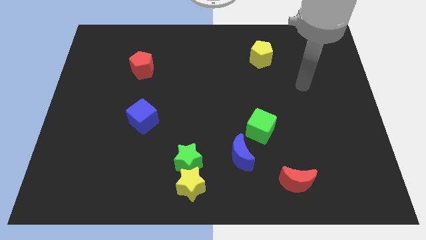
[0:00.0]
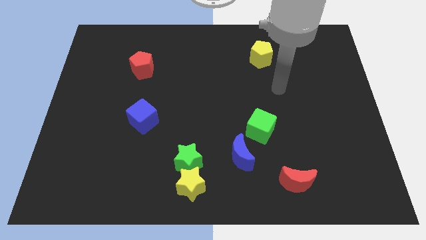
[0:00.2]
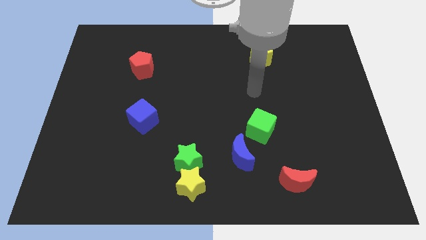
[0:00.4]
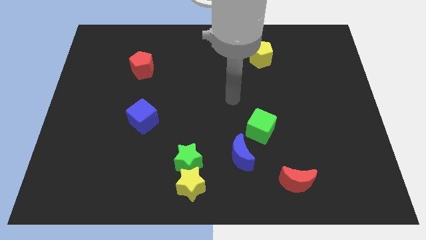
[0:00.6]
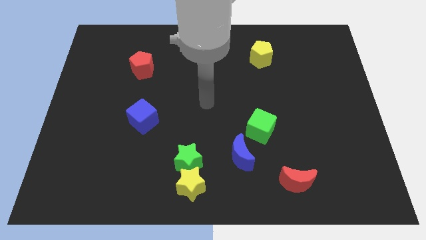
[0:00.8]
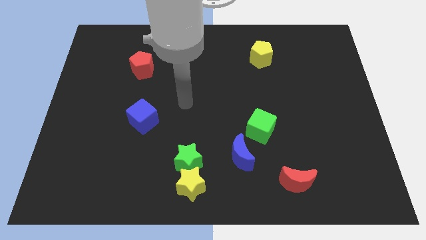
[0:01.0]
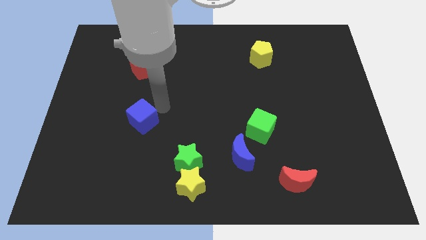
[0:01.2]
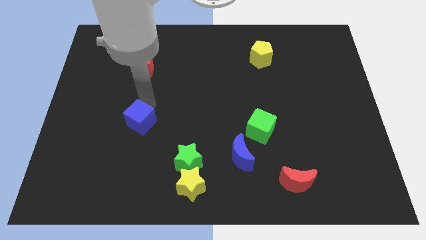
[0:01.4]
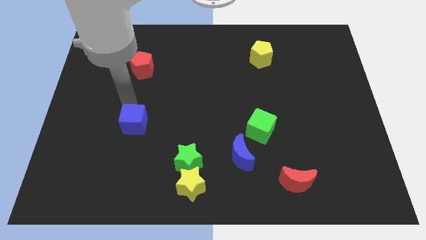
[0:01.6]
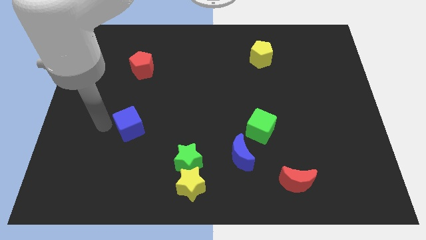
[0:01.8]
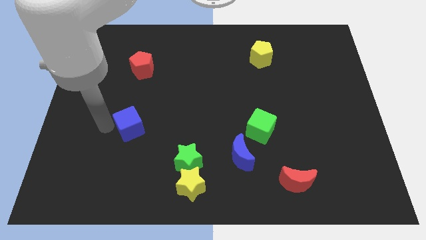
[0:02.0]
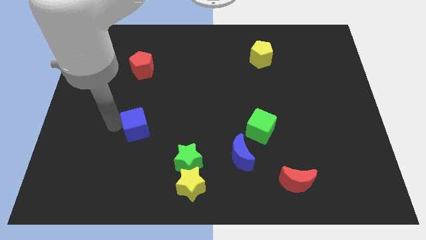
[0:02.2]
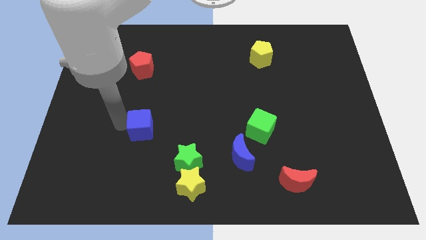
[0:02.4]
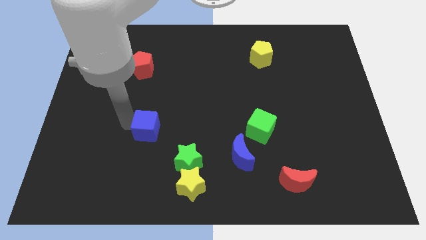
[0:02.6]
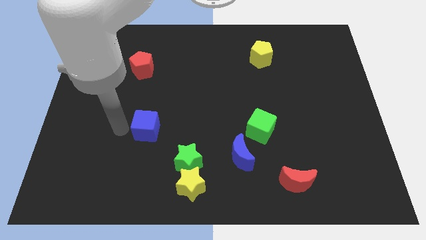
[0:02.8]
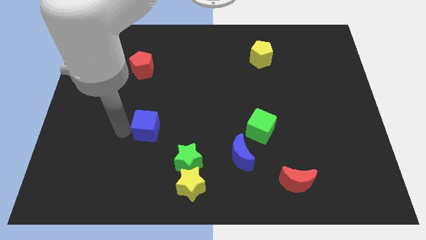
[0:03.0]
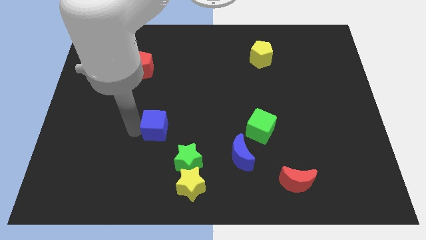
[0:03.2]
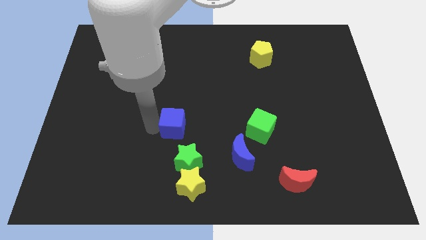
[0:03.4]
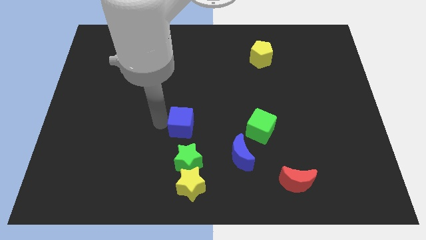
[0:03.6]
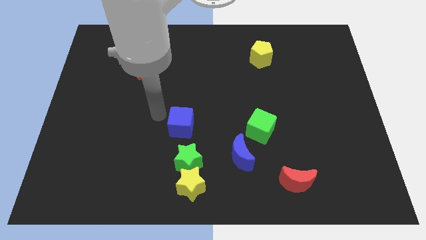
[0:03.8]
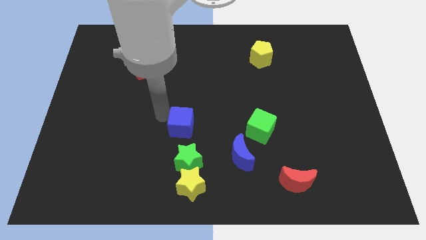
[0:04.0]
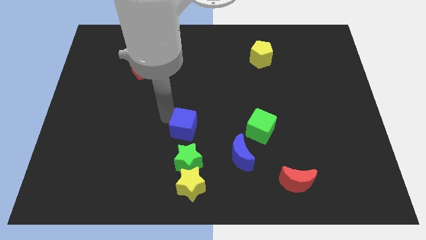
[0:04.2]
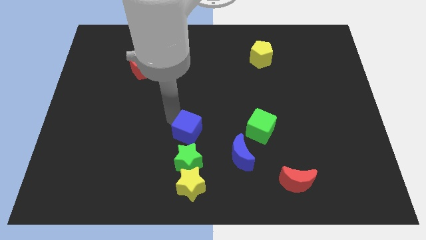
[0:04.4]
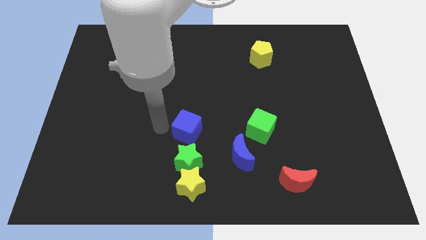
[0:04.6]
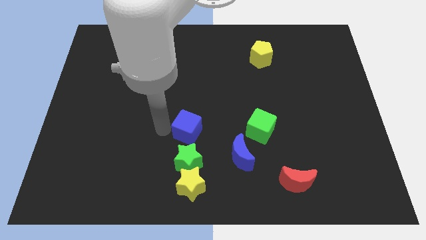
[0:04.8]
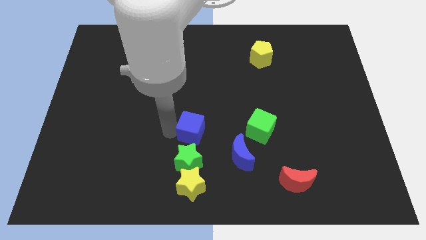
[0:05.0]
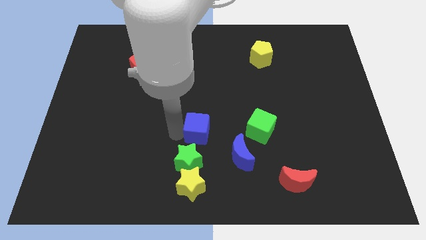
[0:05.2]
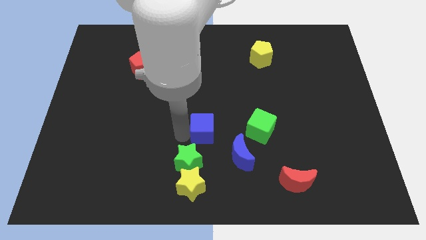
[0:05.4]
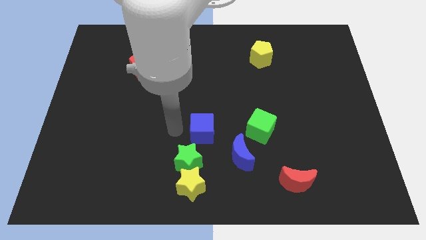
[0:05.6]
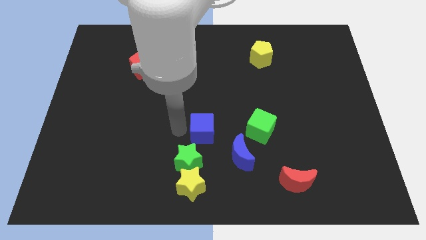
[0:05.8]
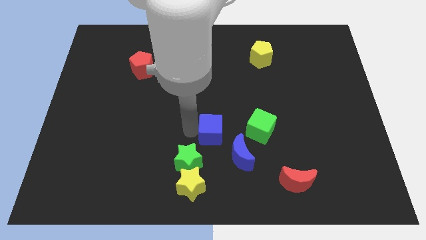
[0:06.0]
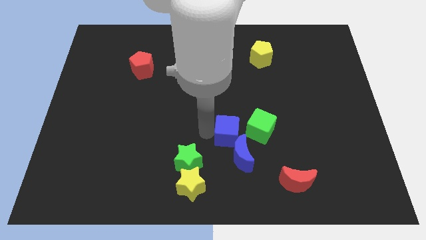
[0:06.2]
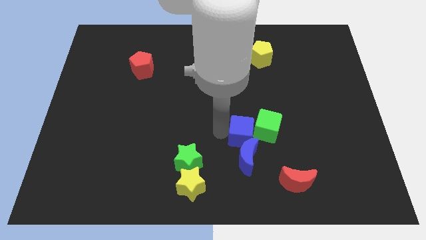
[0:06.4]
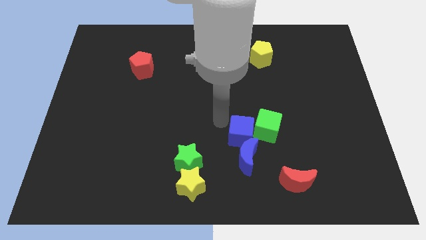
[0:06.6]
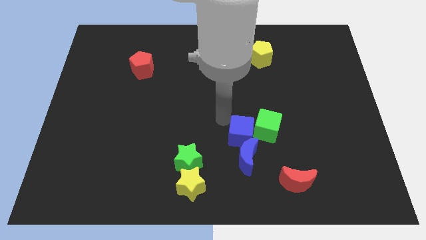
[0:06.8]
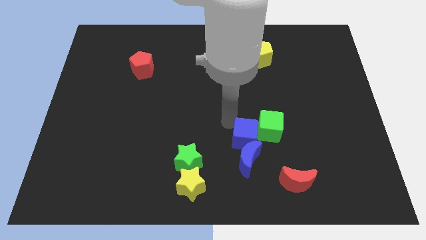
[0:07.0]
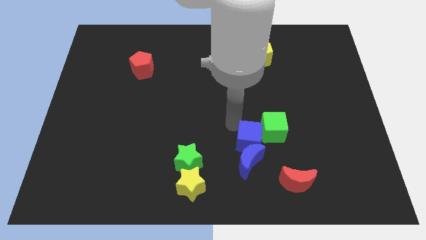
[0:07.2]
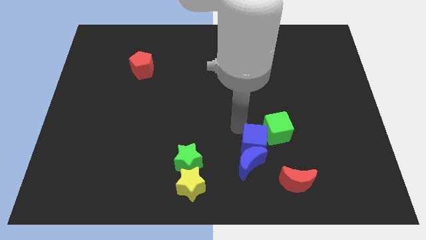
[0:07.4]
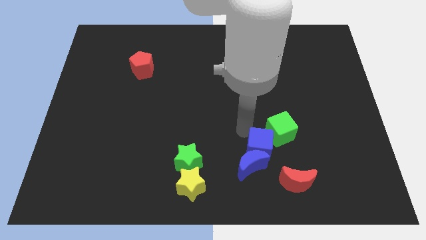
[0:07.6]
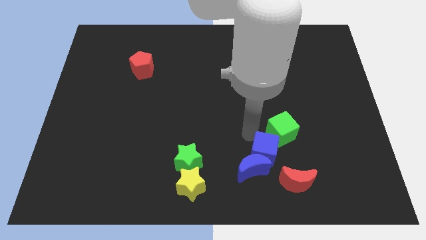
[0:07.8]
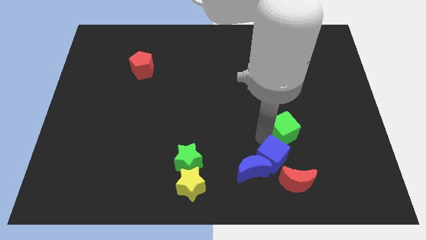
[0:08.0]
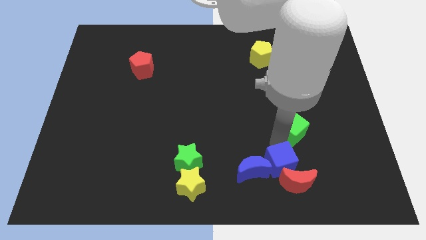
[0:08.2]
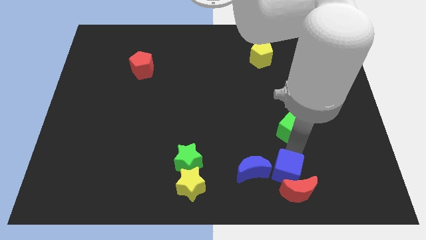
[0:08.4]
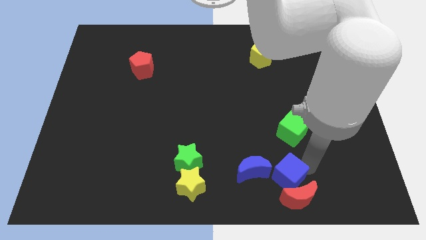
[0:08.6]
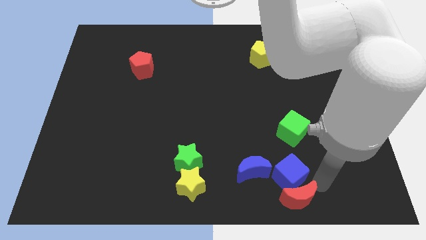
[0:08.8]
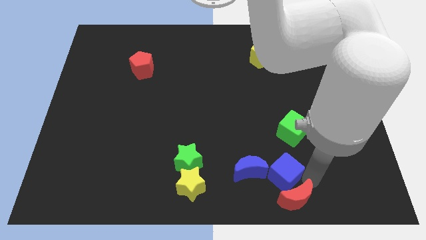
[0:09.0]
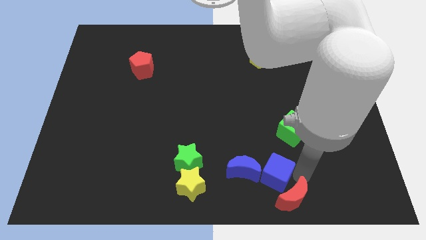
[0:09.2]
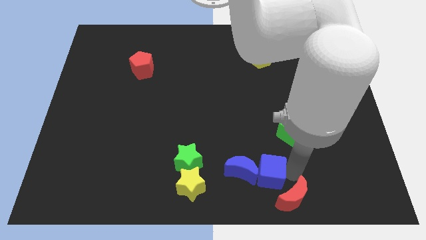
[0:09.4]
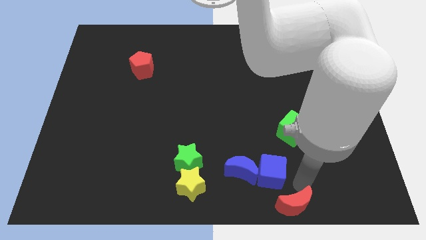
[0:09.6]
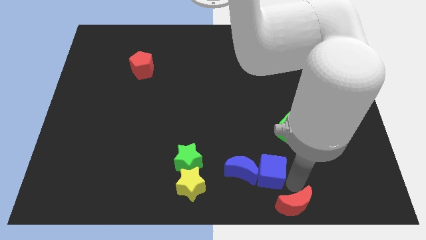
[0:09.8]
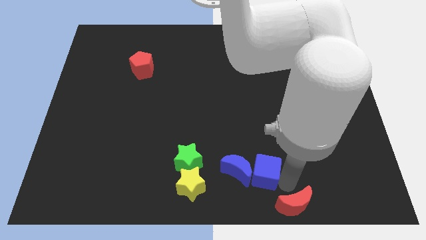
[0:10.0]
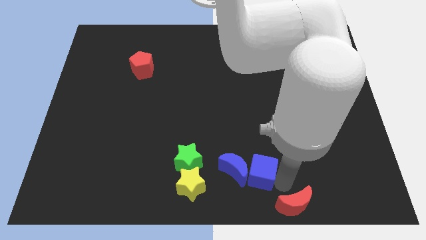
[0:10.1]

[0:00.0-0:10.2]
put the blue cube just right of the green star

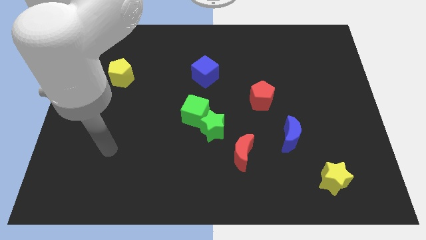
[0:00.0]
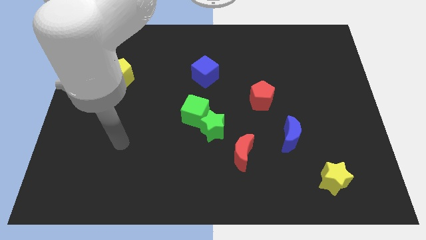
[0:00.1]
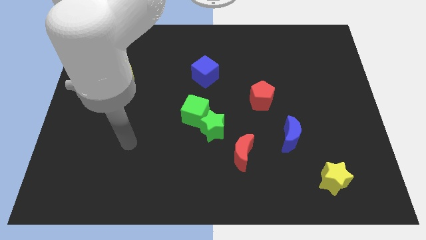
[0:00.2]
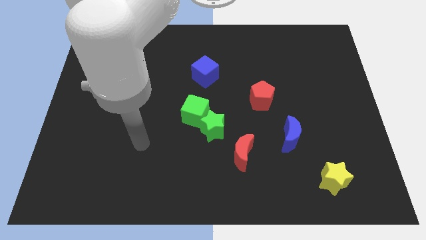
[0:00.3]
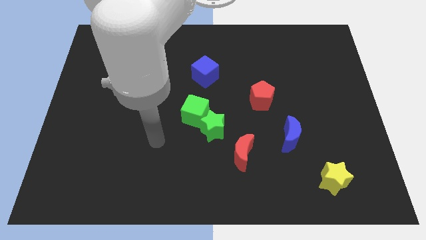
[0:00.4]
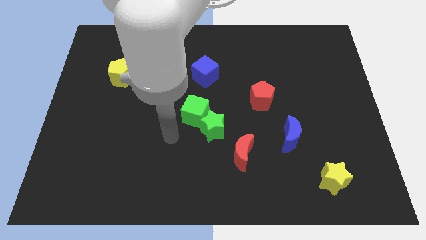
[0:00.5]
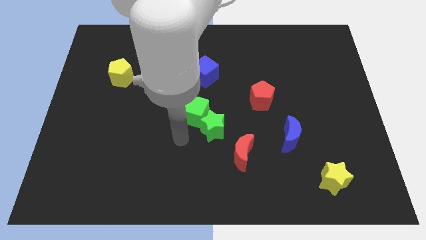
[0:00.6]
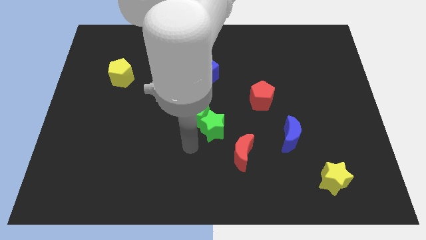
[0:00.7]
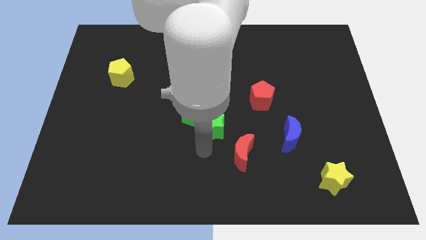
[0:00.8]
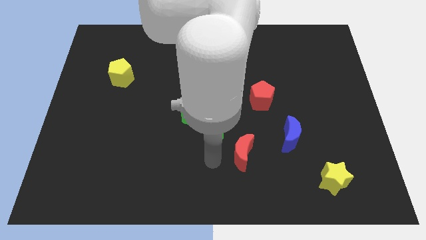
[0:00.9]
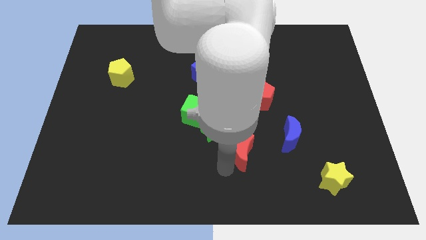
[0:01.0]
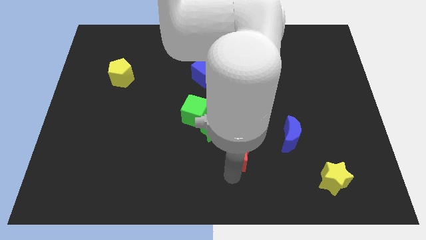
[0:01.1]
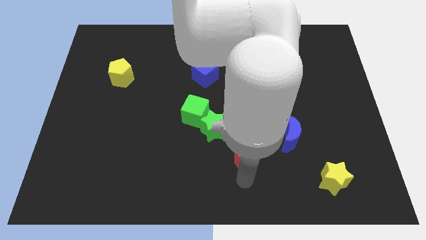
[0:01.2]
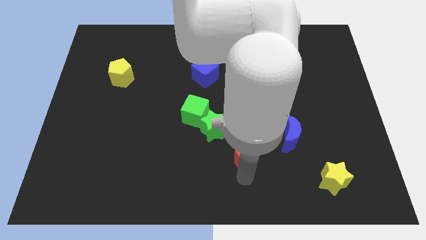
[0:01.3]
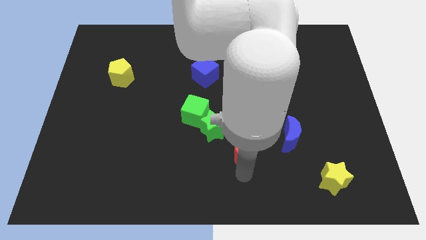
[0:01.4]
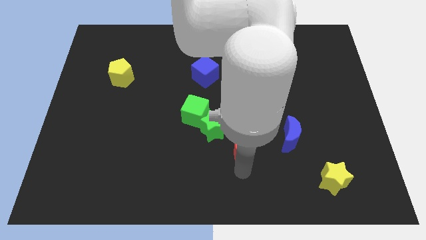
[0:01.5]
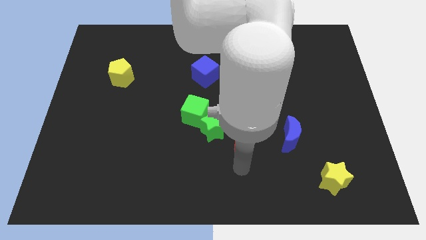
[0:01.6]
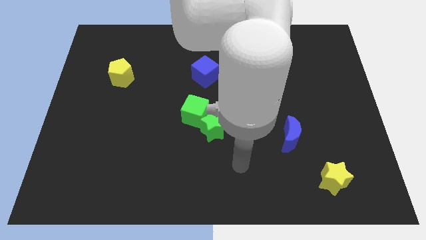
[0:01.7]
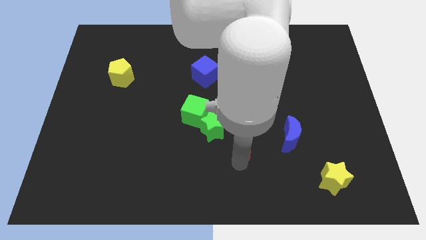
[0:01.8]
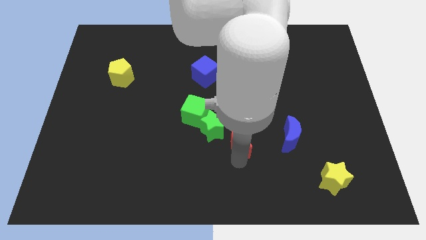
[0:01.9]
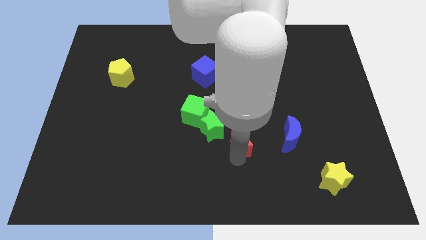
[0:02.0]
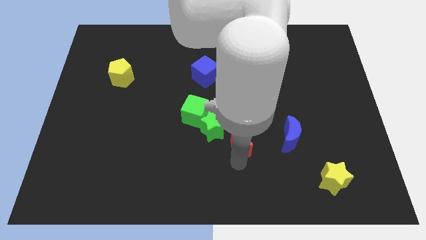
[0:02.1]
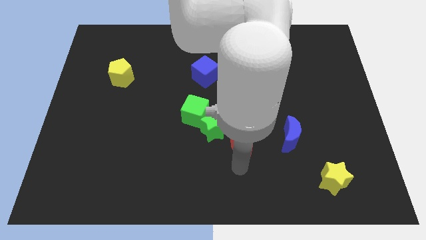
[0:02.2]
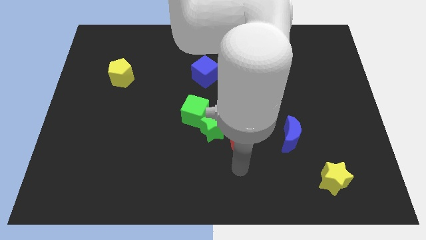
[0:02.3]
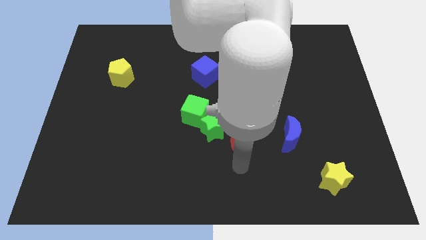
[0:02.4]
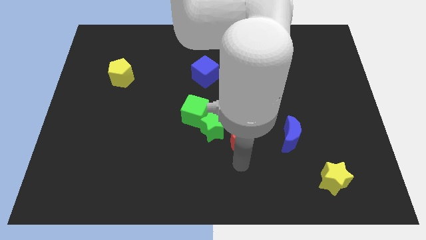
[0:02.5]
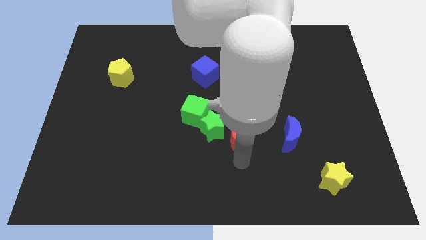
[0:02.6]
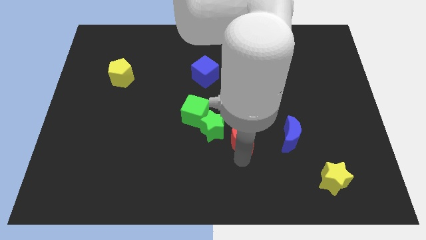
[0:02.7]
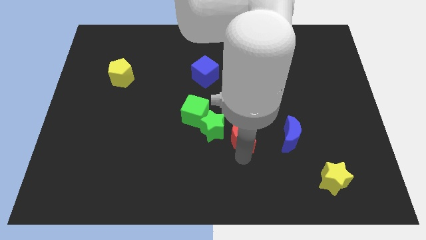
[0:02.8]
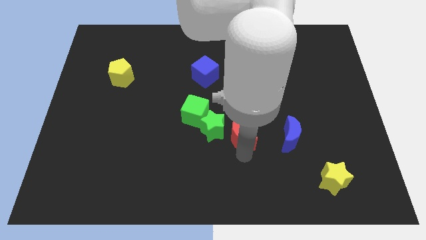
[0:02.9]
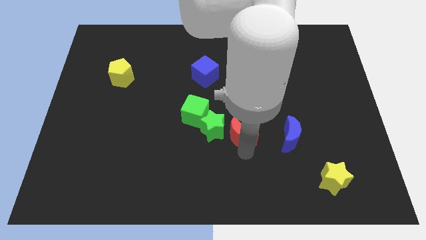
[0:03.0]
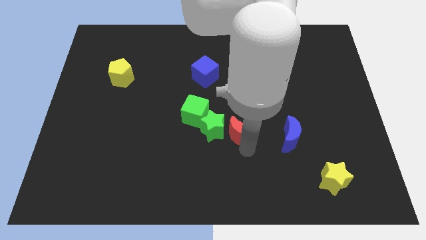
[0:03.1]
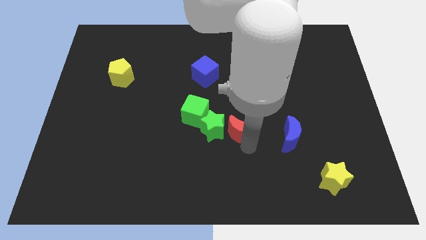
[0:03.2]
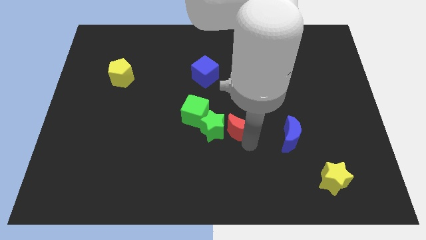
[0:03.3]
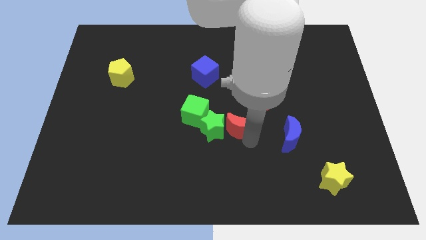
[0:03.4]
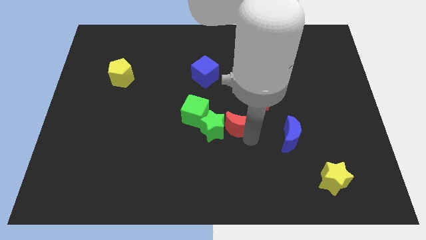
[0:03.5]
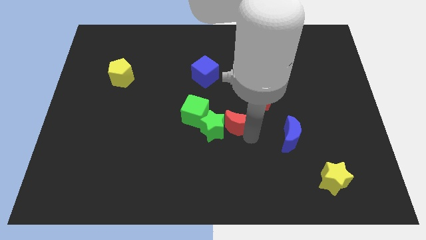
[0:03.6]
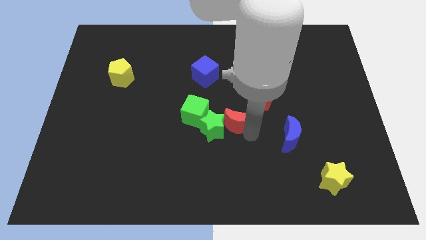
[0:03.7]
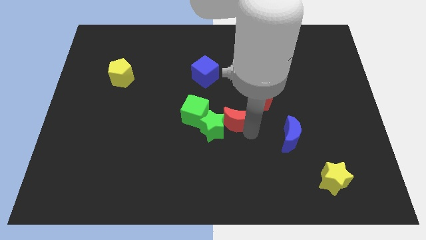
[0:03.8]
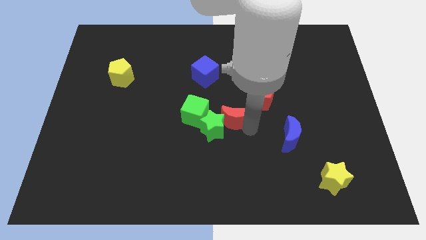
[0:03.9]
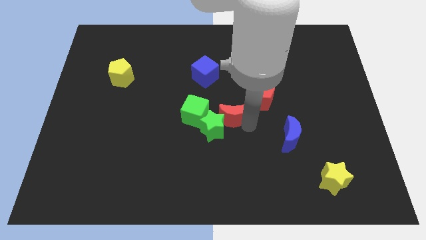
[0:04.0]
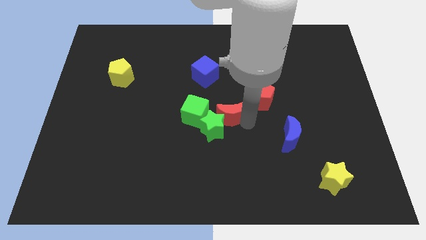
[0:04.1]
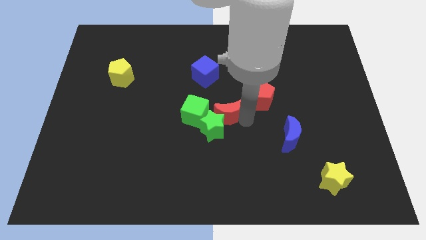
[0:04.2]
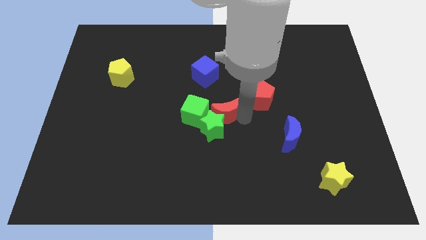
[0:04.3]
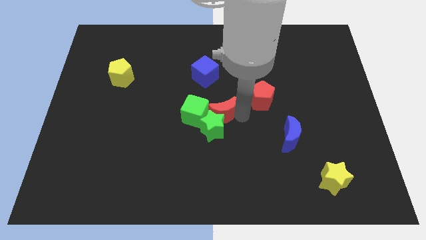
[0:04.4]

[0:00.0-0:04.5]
push the red moon to the top right of the green cube
